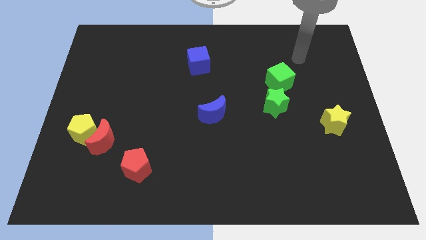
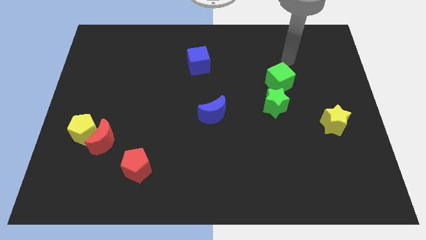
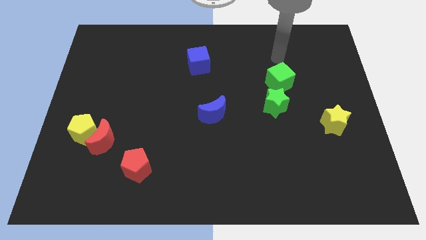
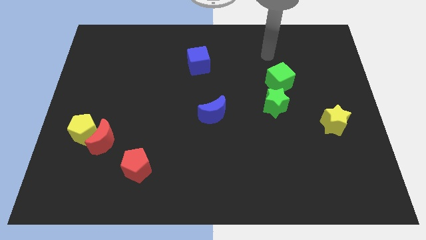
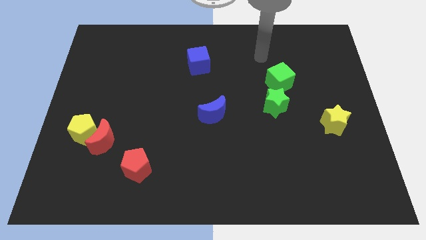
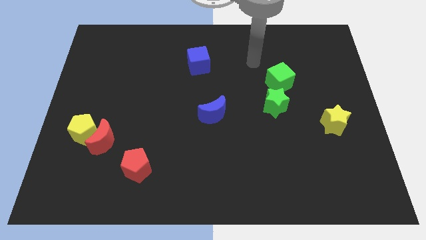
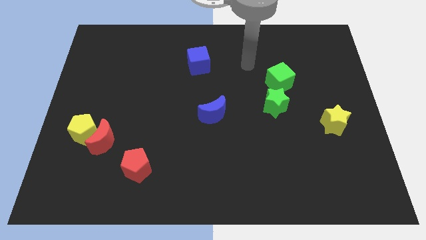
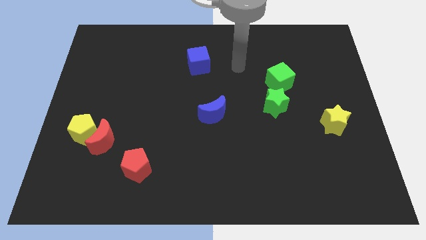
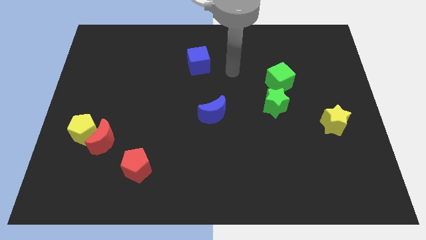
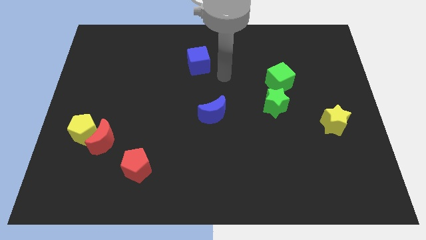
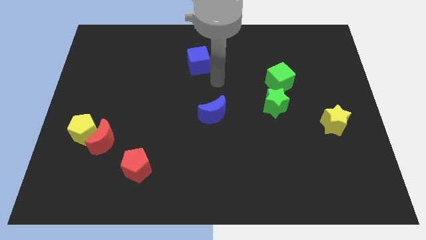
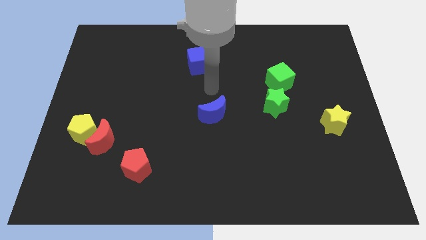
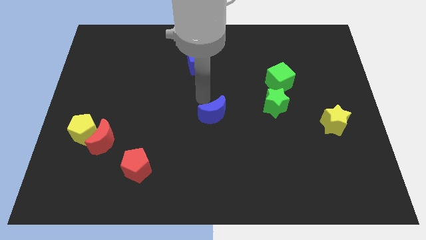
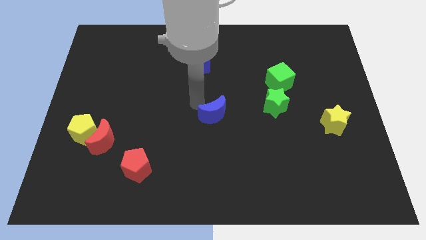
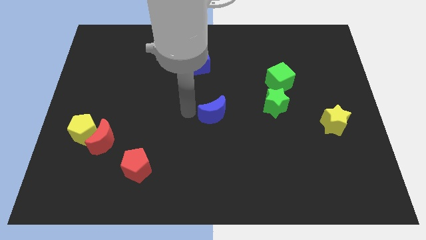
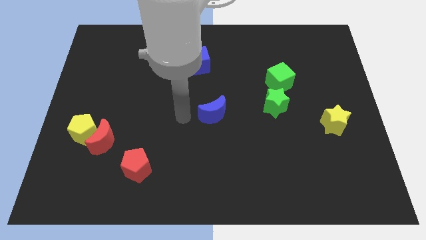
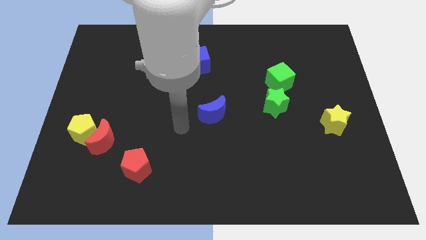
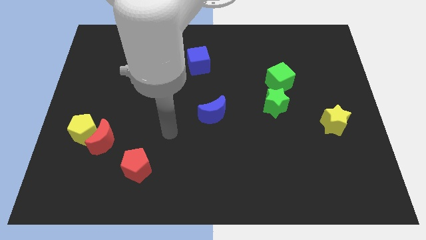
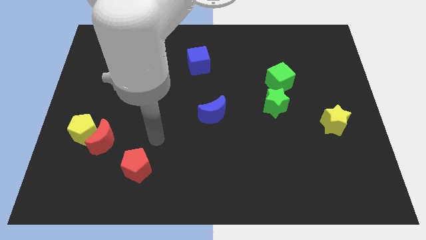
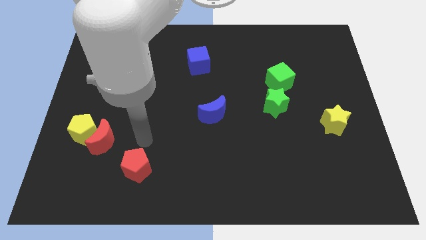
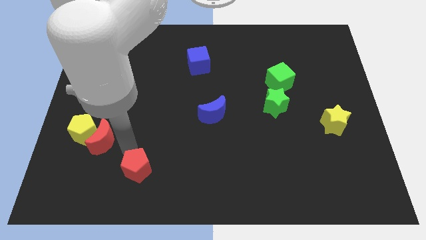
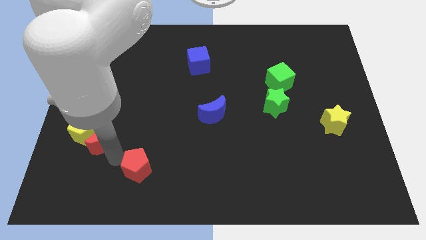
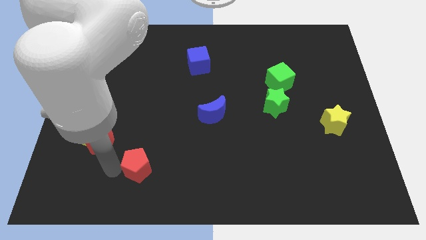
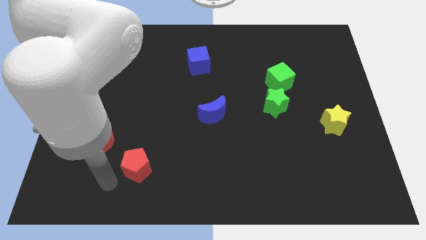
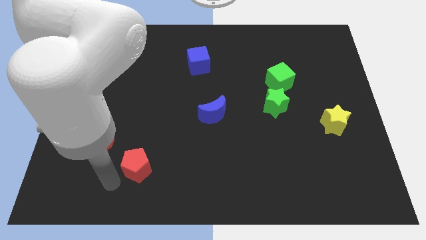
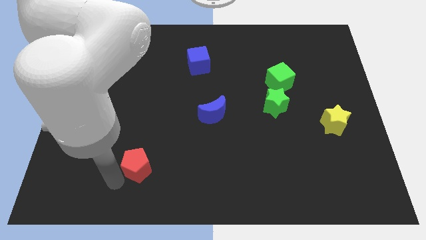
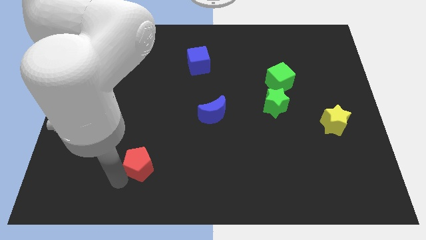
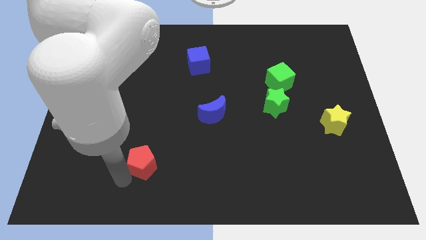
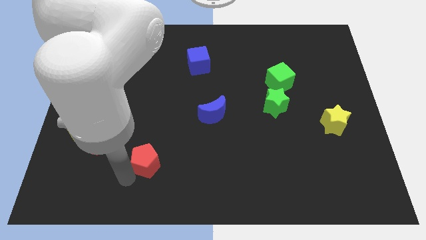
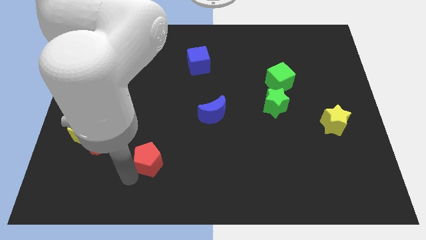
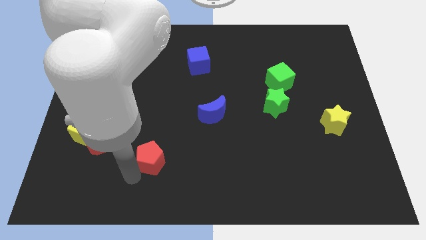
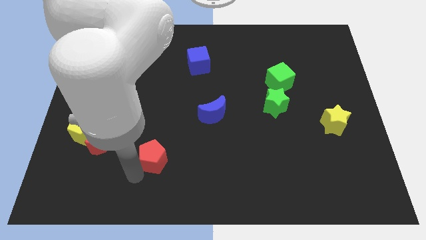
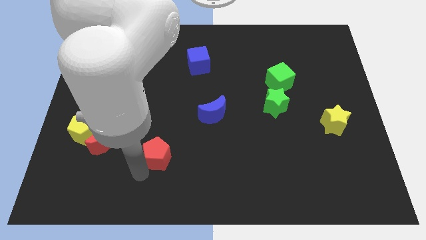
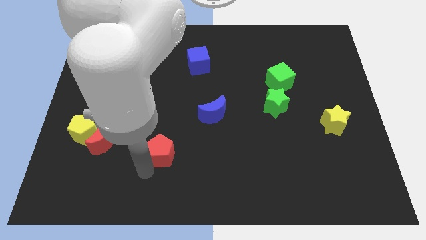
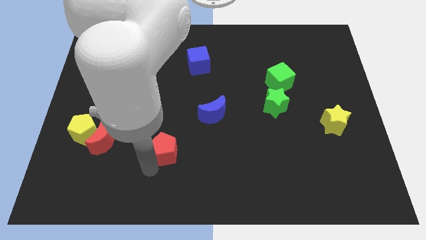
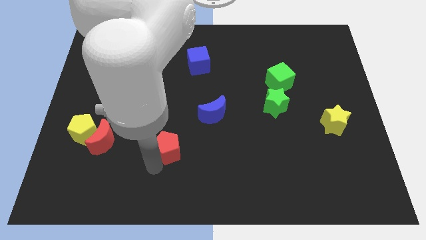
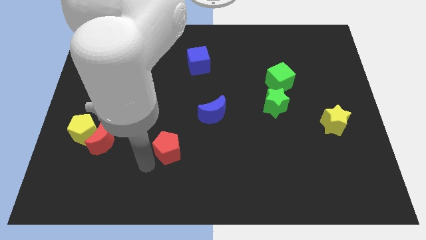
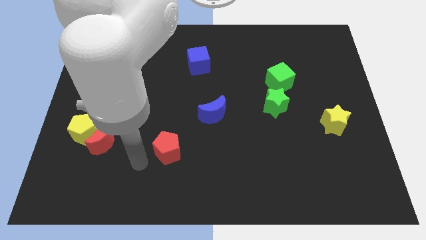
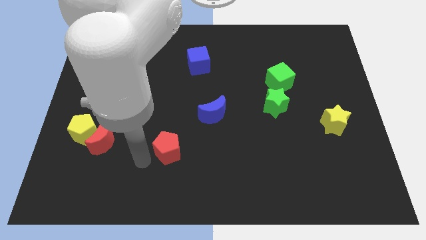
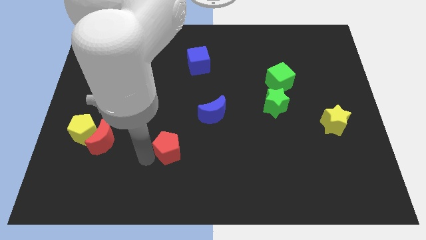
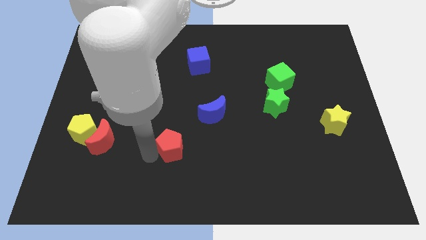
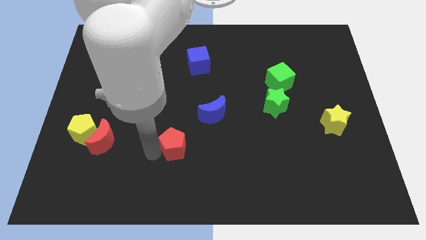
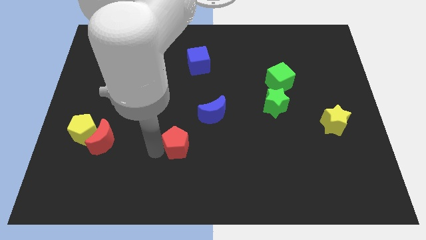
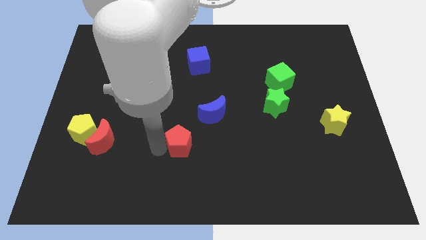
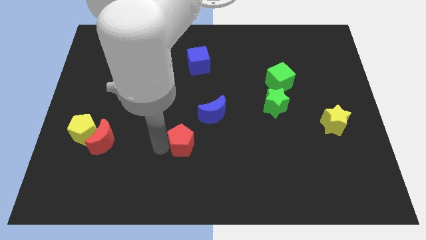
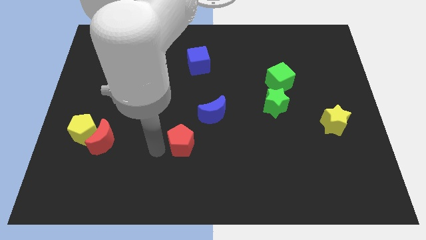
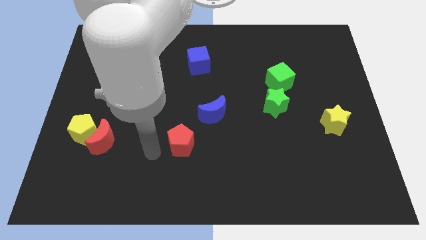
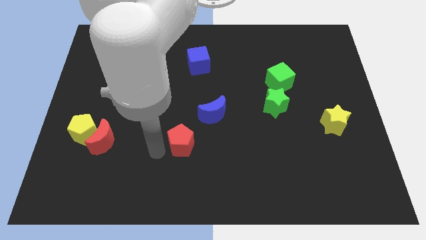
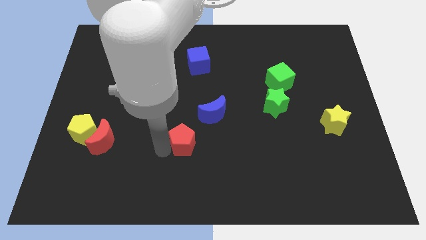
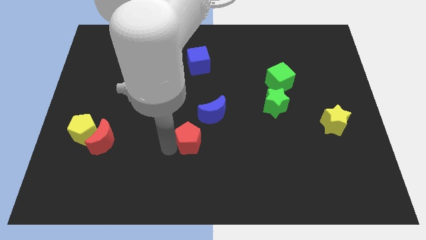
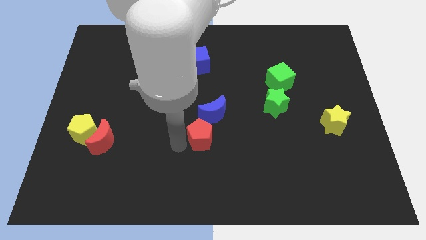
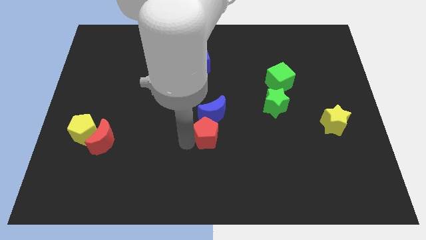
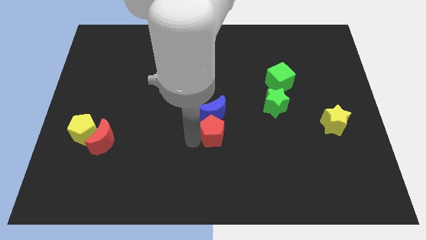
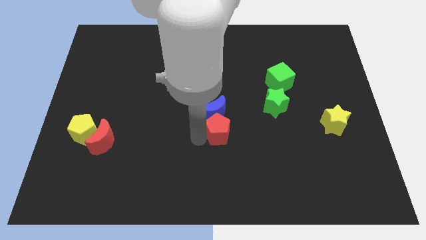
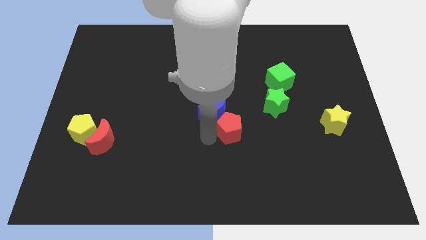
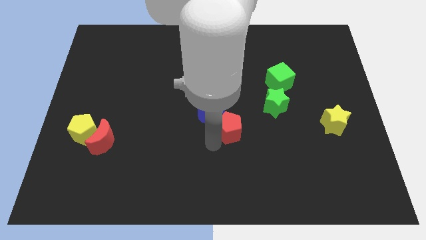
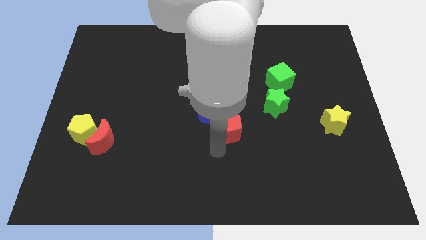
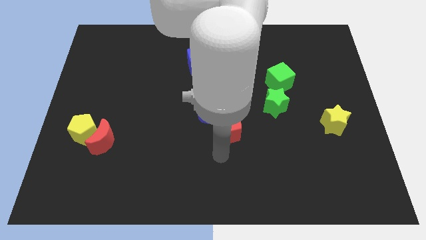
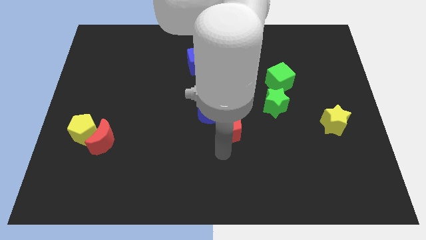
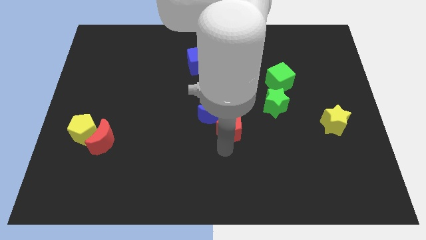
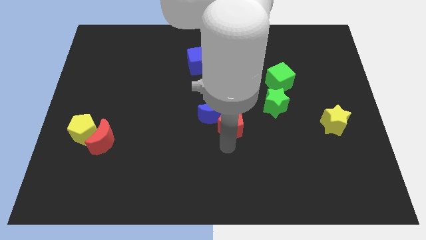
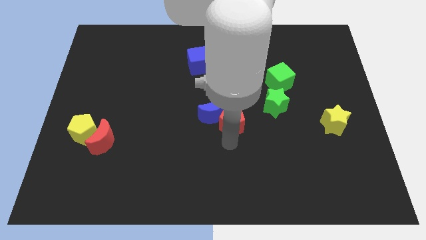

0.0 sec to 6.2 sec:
move the red pentagon up and to the right diagonally

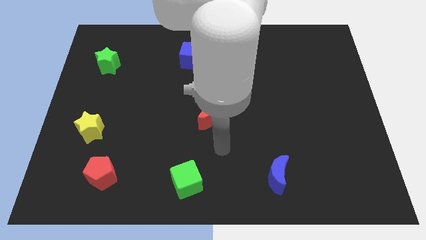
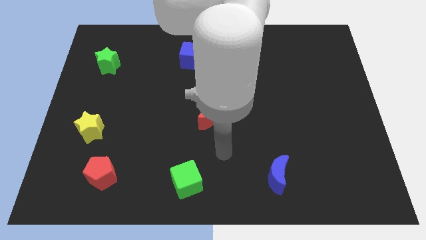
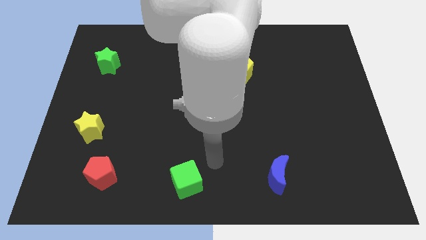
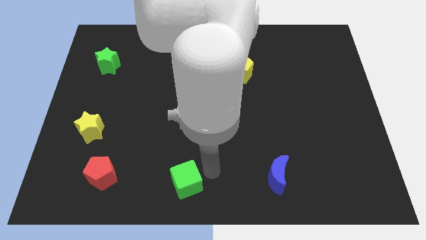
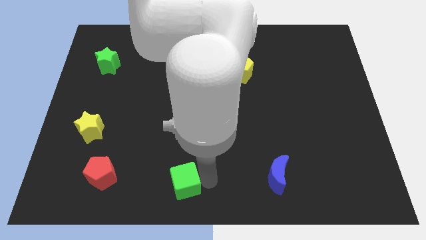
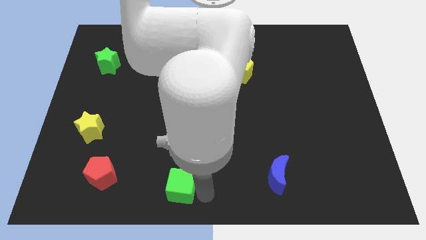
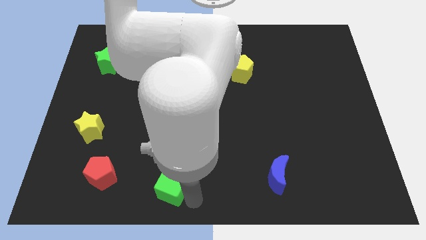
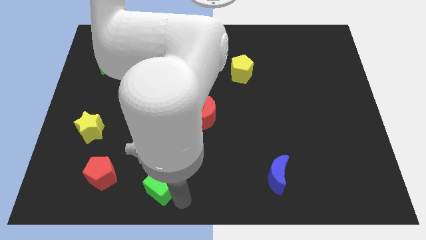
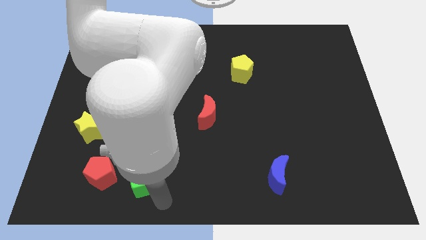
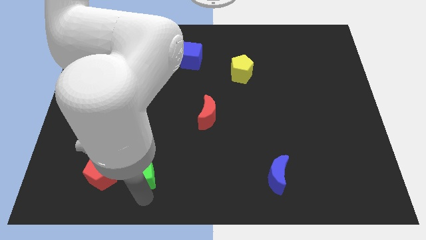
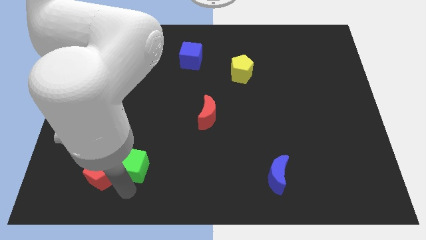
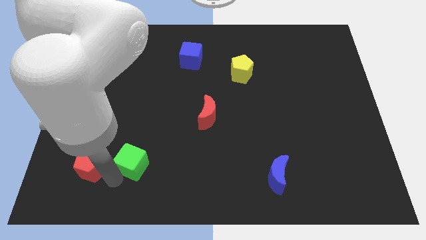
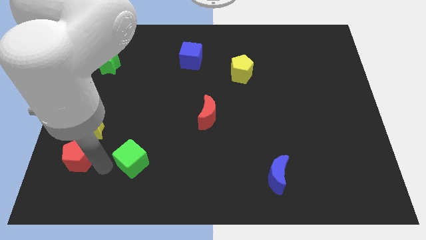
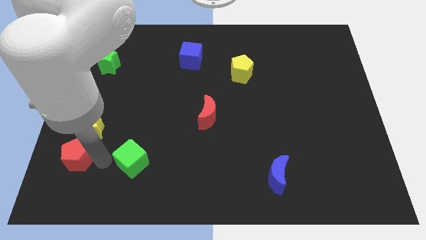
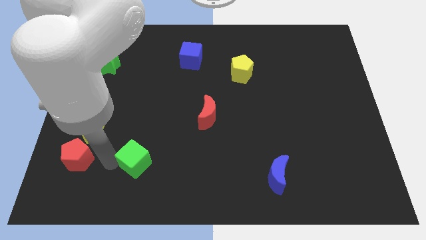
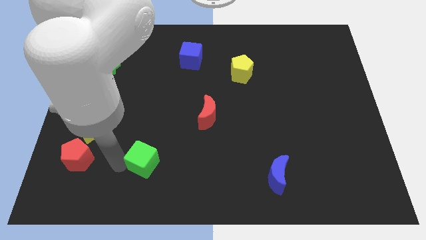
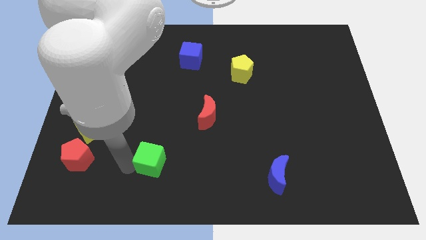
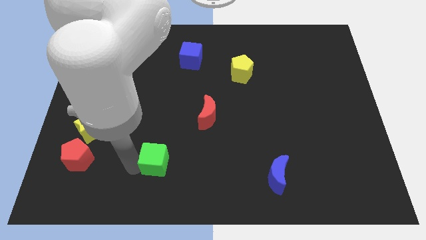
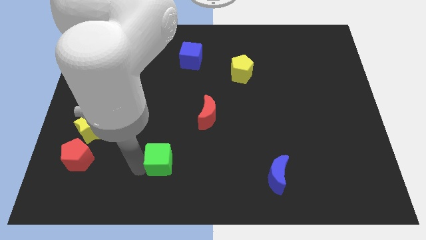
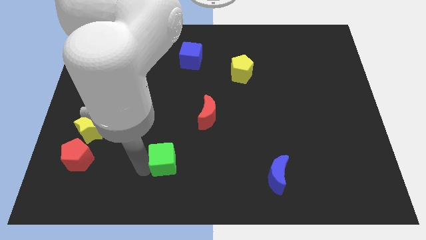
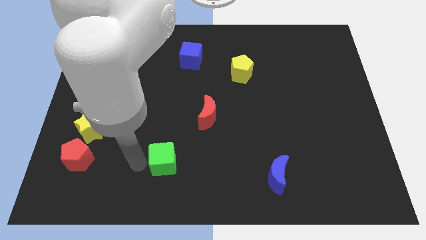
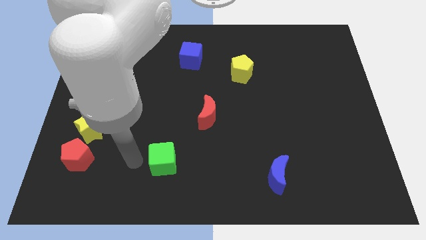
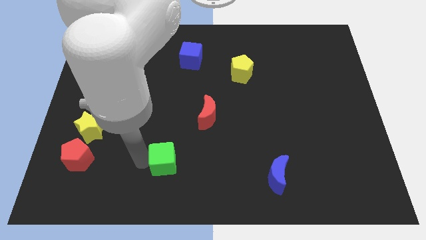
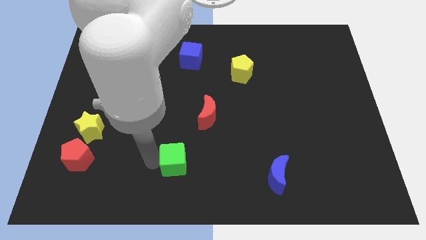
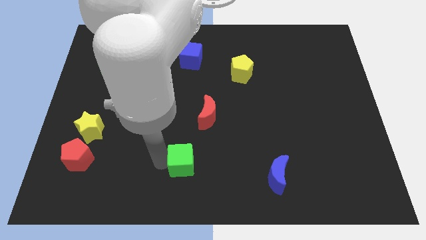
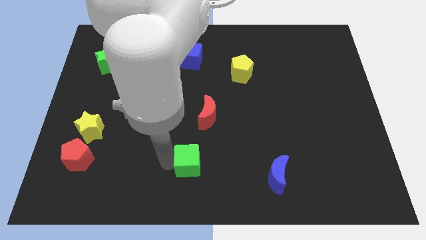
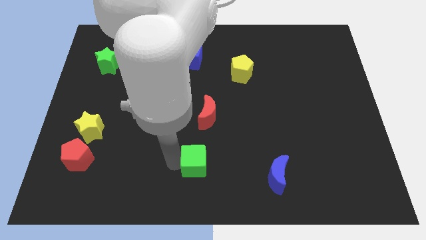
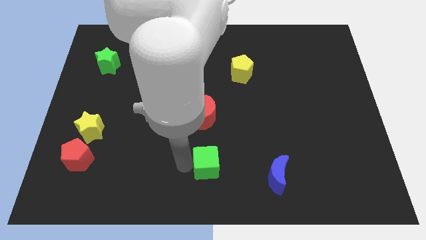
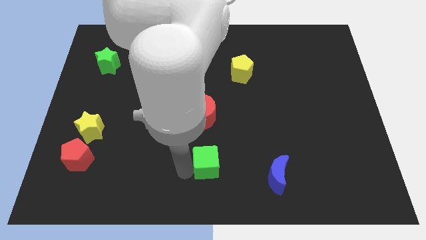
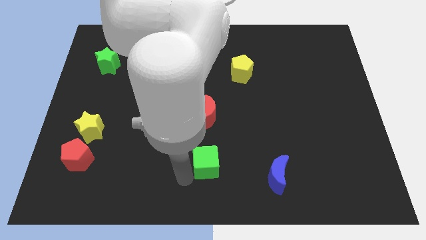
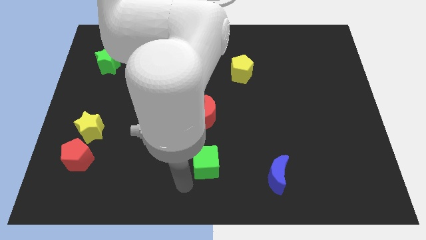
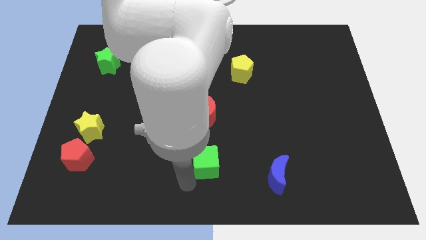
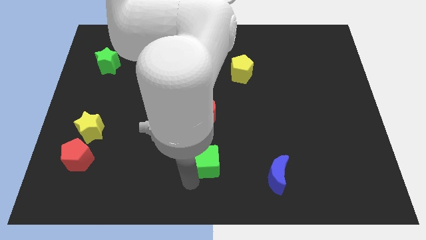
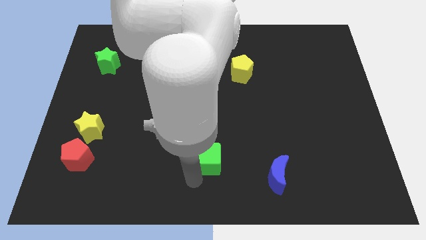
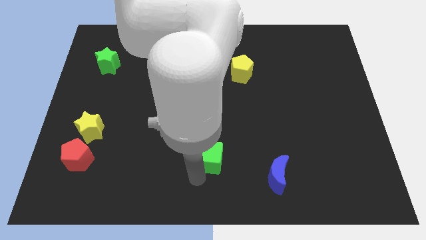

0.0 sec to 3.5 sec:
slightly move the green cube upwards and right
